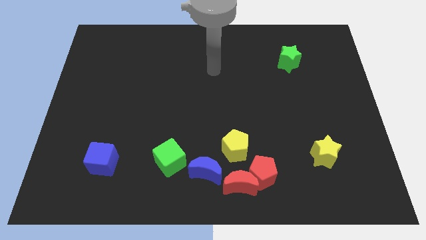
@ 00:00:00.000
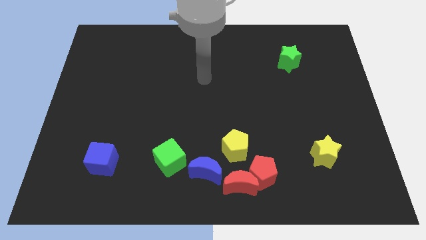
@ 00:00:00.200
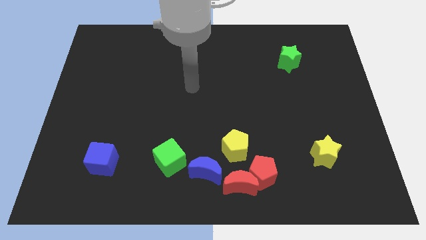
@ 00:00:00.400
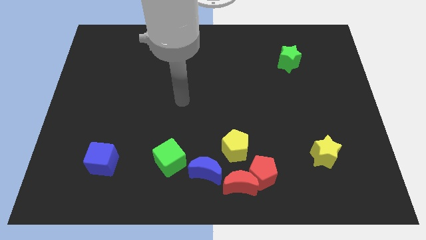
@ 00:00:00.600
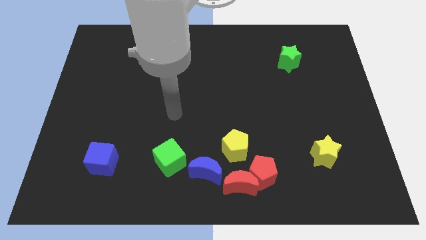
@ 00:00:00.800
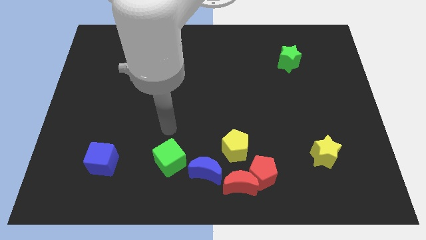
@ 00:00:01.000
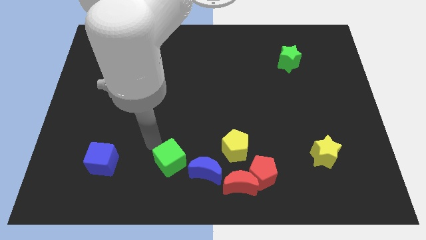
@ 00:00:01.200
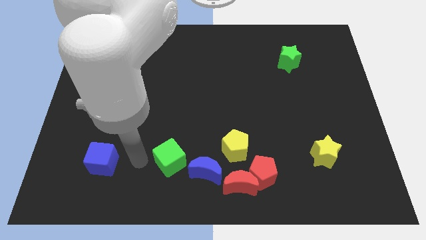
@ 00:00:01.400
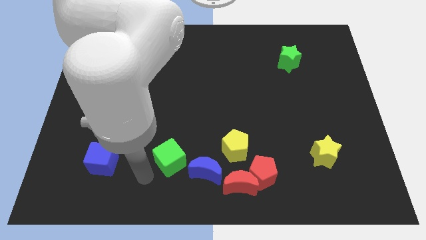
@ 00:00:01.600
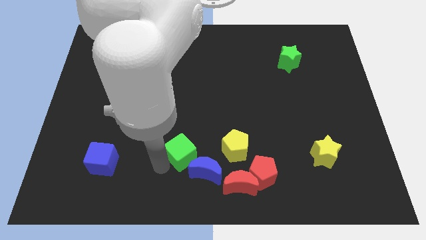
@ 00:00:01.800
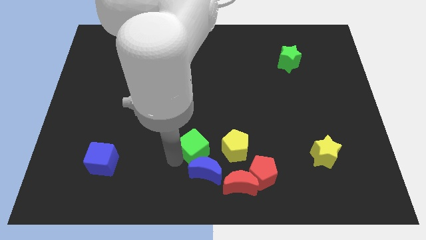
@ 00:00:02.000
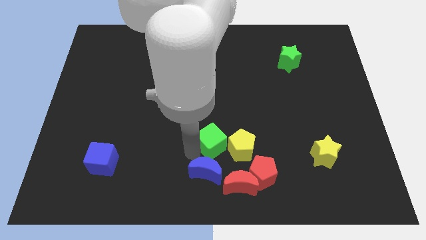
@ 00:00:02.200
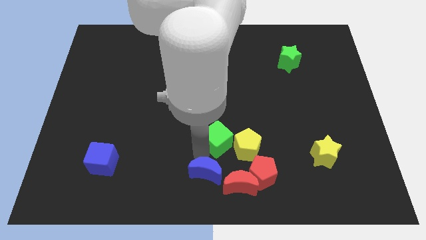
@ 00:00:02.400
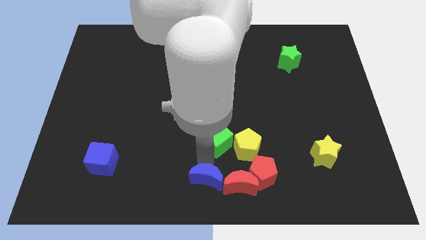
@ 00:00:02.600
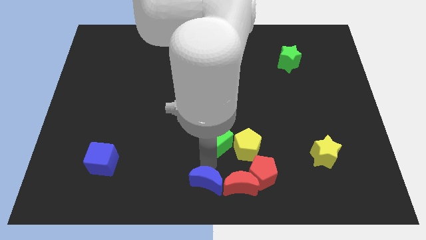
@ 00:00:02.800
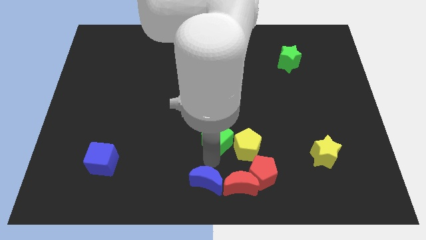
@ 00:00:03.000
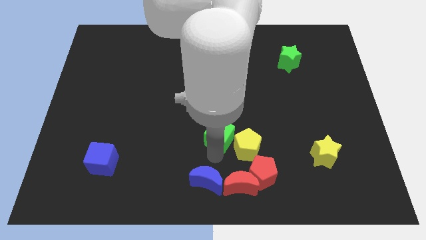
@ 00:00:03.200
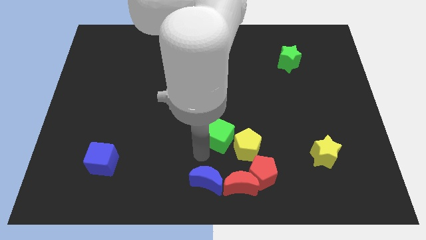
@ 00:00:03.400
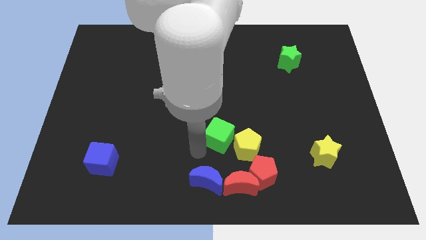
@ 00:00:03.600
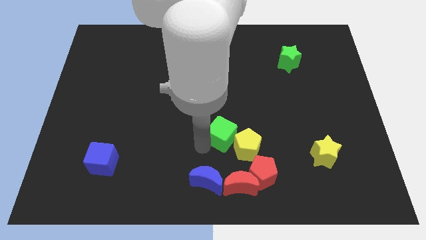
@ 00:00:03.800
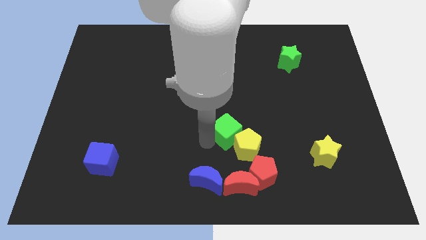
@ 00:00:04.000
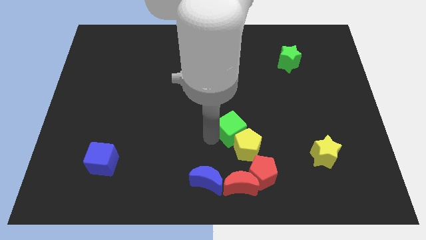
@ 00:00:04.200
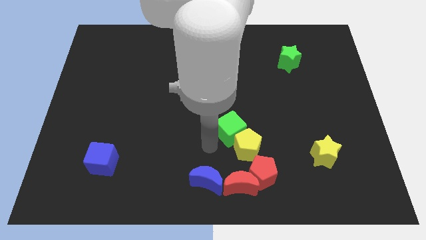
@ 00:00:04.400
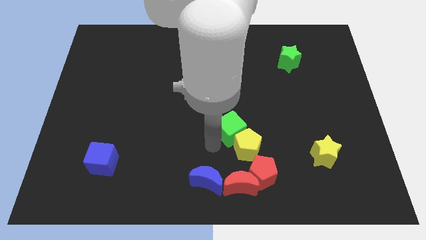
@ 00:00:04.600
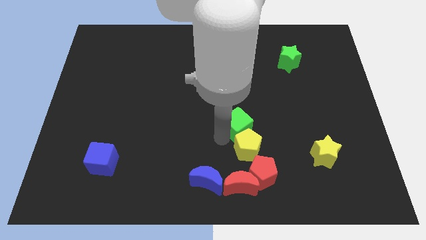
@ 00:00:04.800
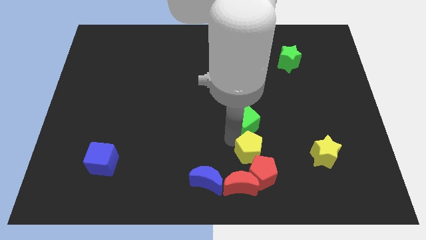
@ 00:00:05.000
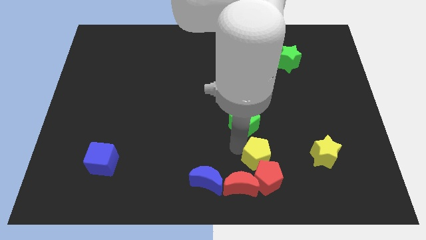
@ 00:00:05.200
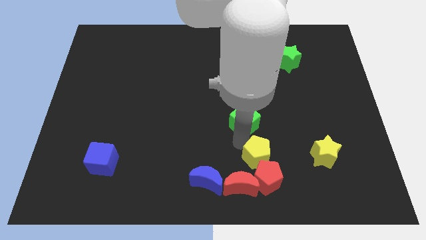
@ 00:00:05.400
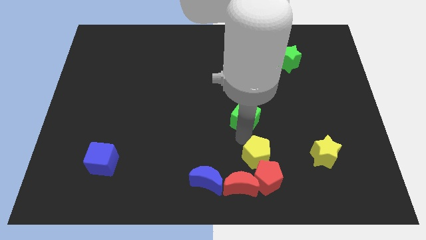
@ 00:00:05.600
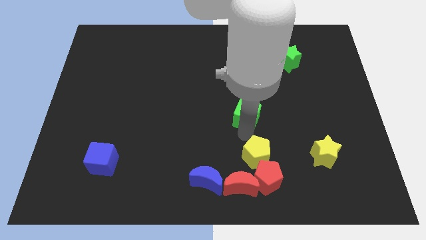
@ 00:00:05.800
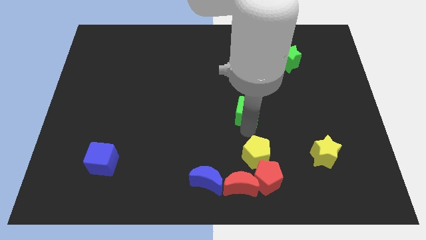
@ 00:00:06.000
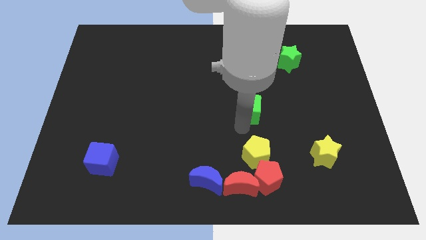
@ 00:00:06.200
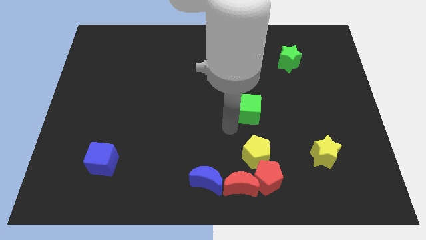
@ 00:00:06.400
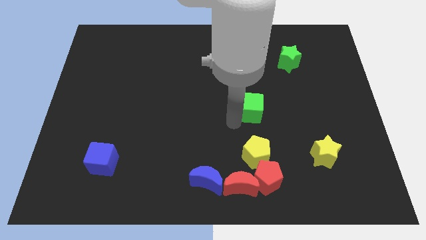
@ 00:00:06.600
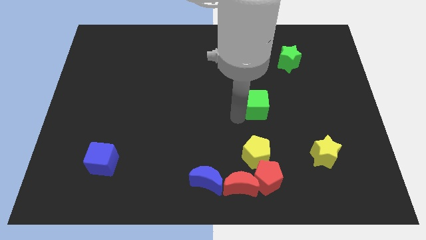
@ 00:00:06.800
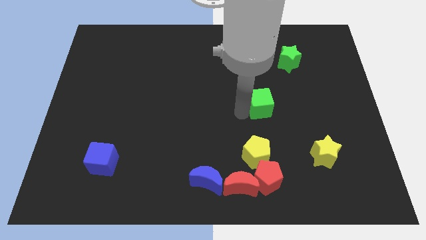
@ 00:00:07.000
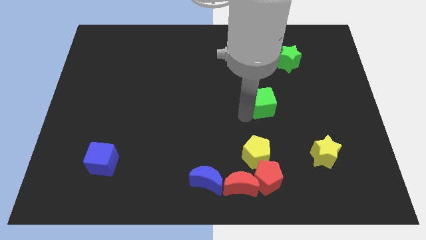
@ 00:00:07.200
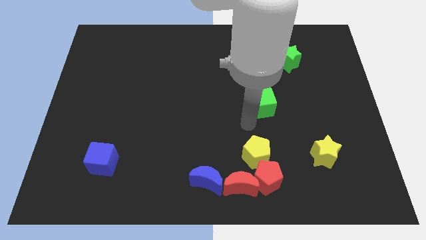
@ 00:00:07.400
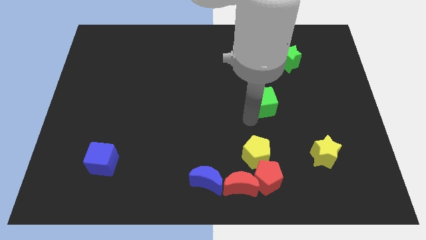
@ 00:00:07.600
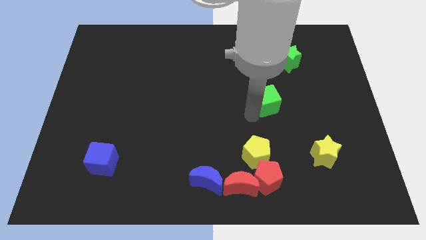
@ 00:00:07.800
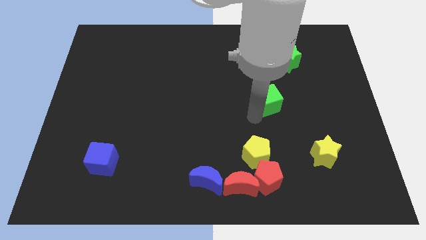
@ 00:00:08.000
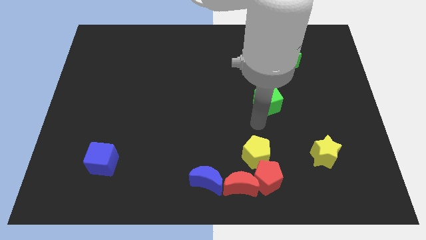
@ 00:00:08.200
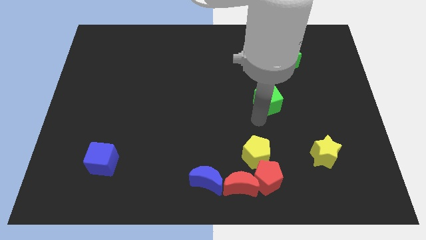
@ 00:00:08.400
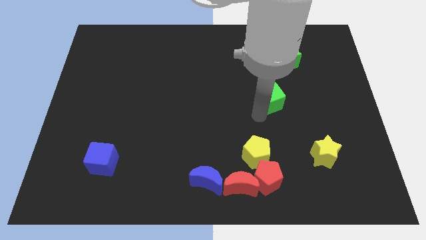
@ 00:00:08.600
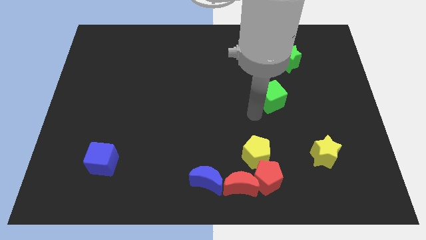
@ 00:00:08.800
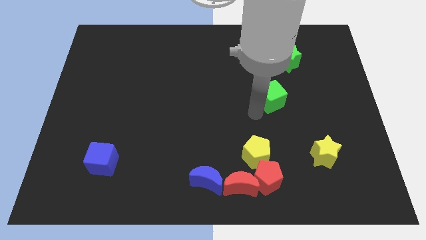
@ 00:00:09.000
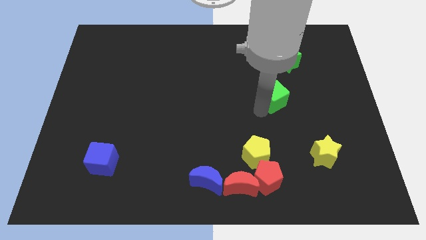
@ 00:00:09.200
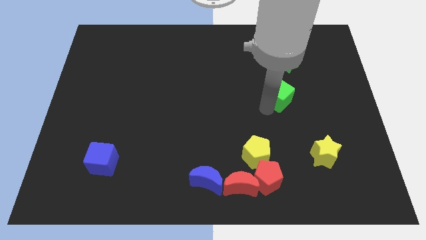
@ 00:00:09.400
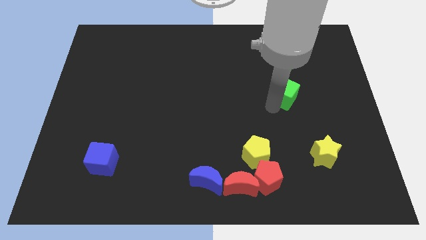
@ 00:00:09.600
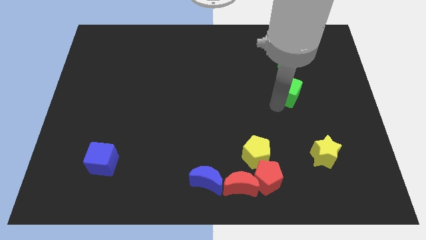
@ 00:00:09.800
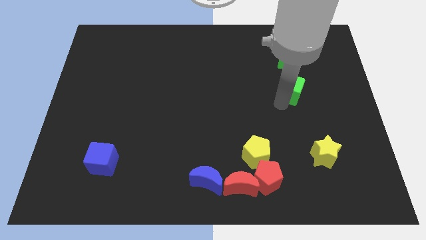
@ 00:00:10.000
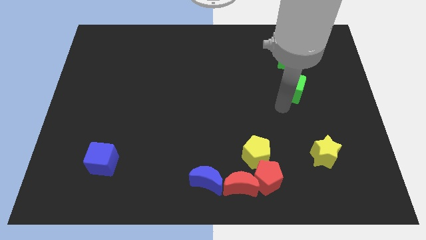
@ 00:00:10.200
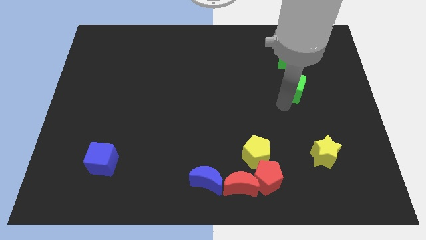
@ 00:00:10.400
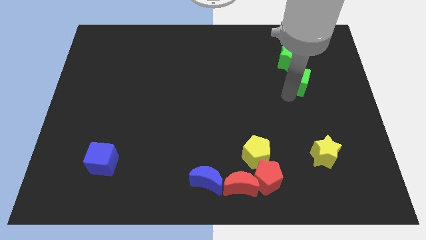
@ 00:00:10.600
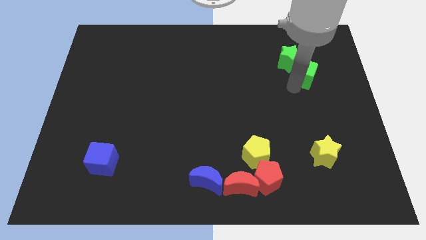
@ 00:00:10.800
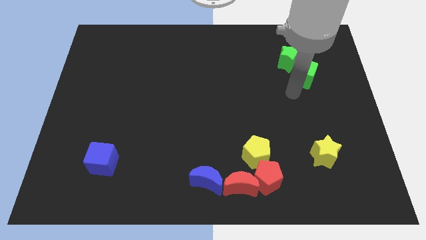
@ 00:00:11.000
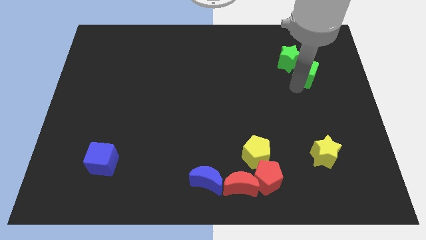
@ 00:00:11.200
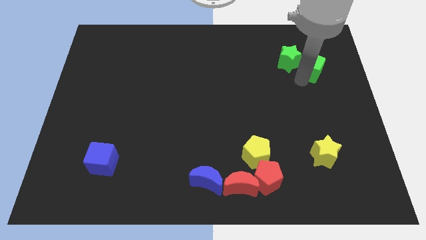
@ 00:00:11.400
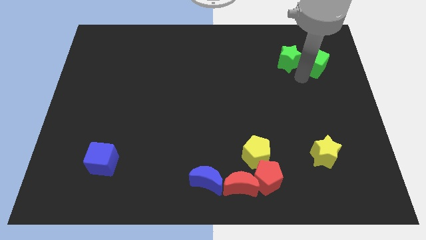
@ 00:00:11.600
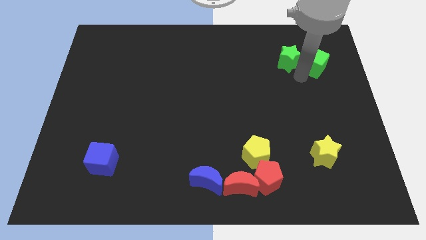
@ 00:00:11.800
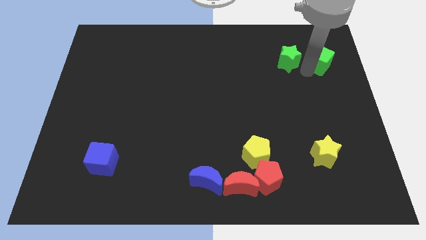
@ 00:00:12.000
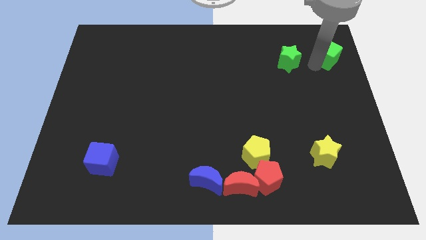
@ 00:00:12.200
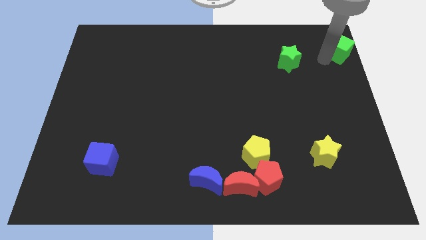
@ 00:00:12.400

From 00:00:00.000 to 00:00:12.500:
put the green cube to the top right corner

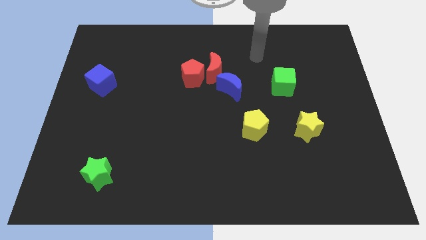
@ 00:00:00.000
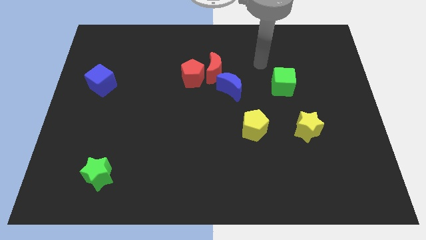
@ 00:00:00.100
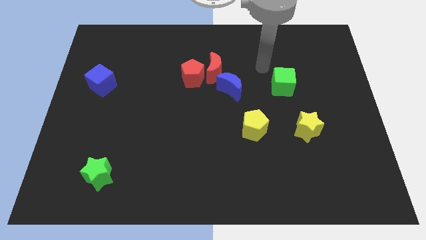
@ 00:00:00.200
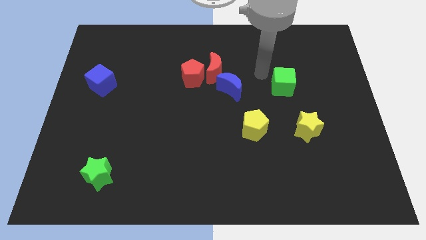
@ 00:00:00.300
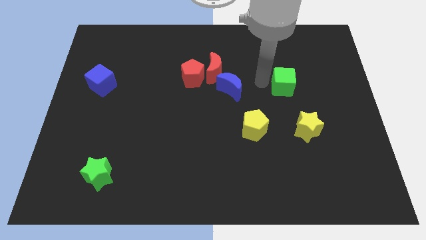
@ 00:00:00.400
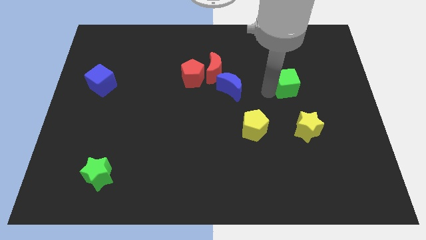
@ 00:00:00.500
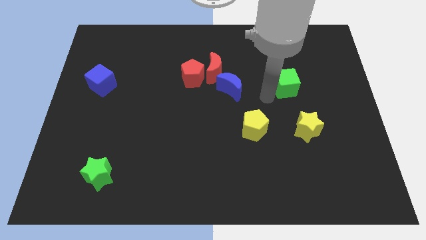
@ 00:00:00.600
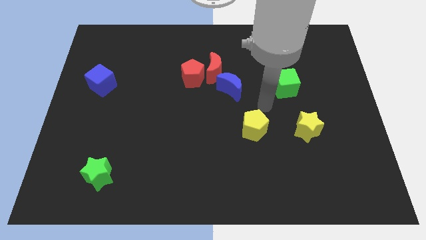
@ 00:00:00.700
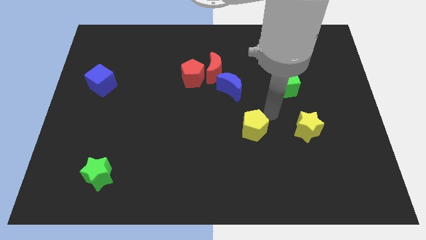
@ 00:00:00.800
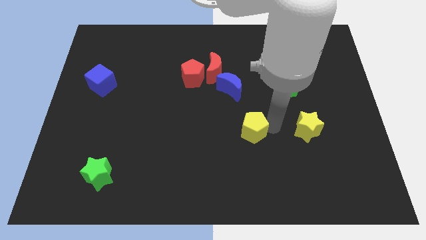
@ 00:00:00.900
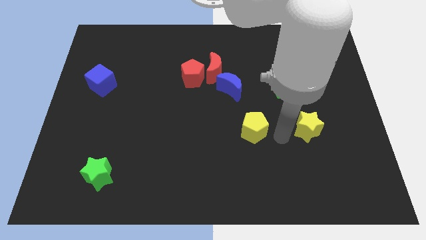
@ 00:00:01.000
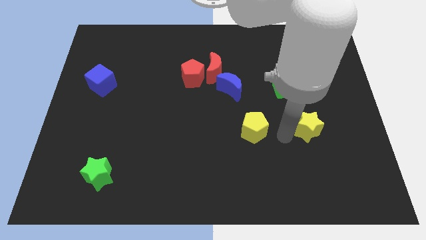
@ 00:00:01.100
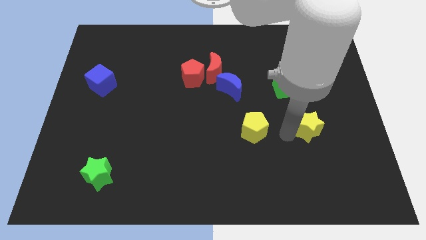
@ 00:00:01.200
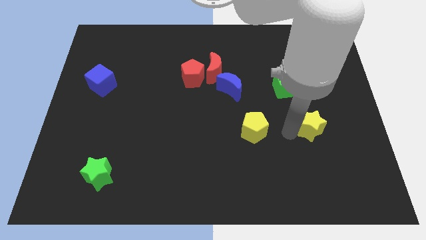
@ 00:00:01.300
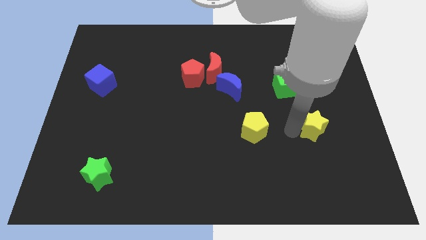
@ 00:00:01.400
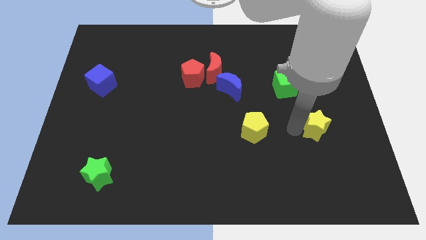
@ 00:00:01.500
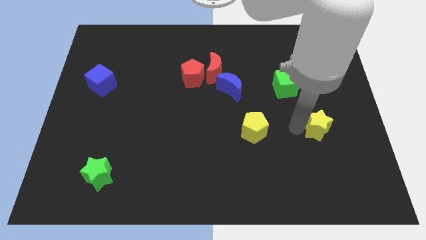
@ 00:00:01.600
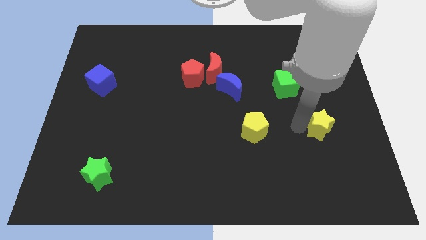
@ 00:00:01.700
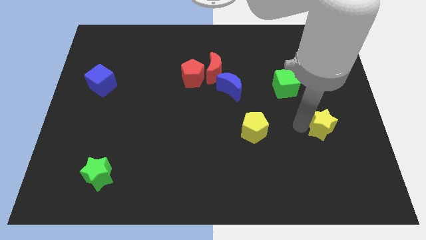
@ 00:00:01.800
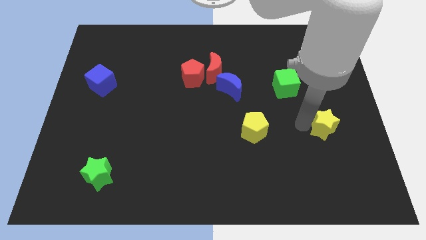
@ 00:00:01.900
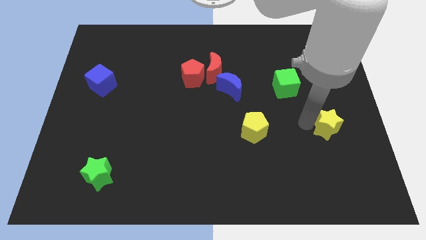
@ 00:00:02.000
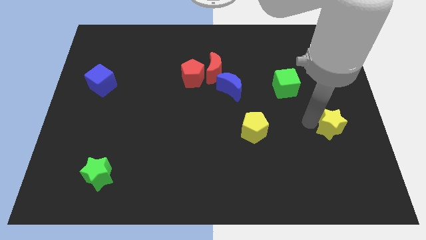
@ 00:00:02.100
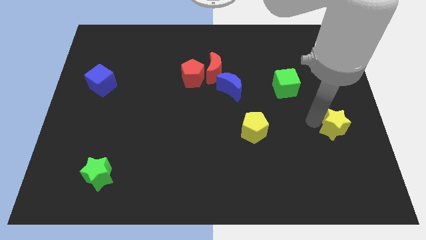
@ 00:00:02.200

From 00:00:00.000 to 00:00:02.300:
push the yellow star to the right side of the board
